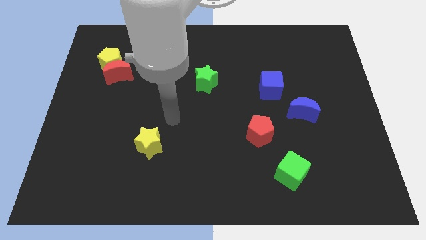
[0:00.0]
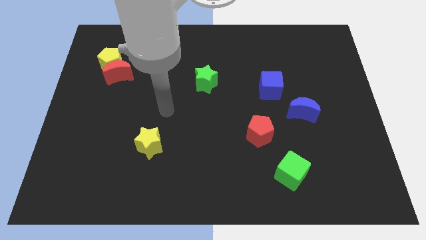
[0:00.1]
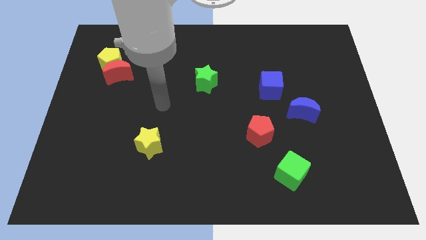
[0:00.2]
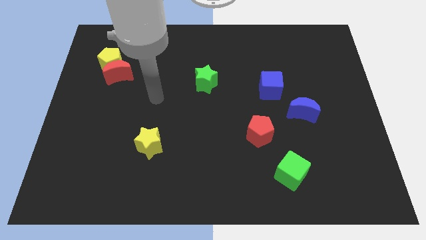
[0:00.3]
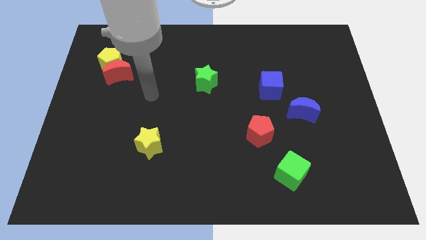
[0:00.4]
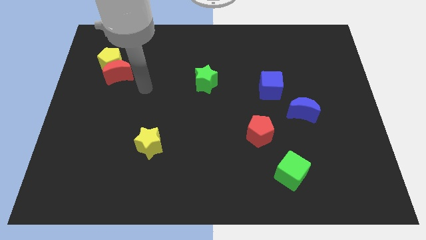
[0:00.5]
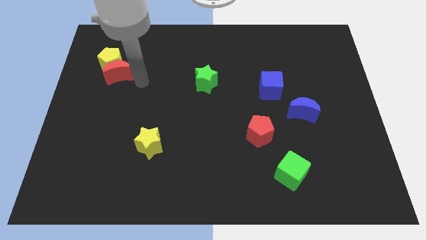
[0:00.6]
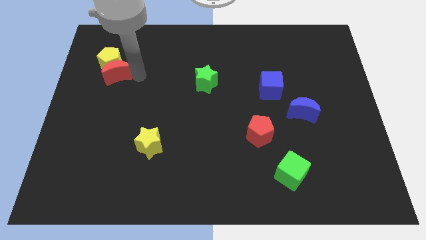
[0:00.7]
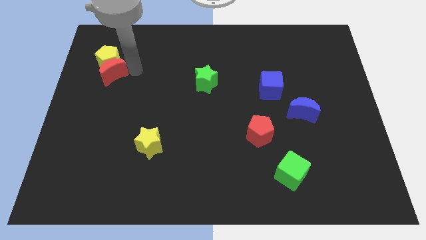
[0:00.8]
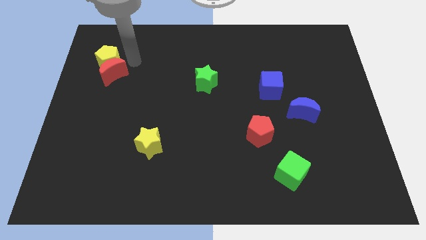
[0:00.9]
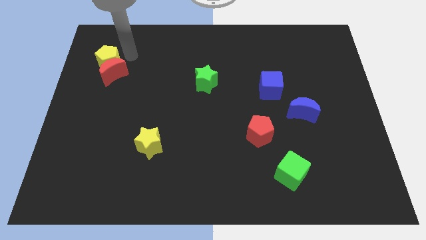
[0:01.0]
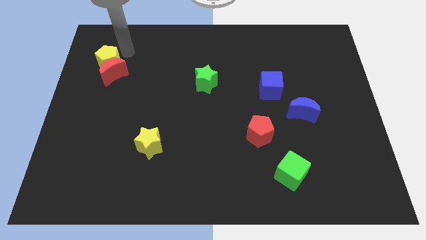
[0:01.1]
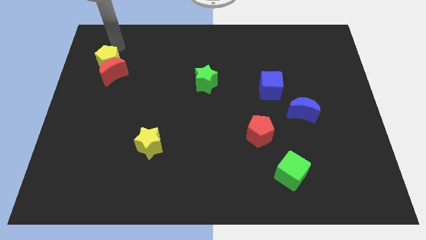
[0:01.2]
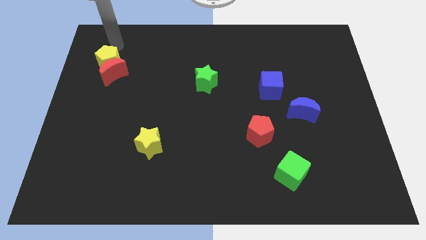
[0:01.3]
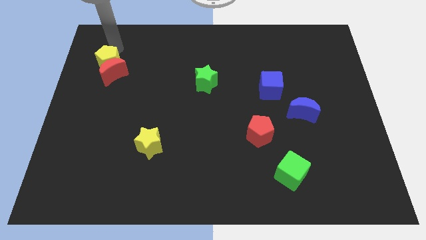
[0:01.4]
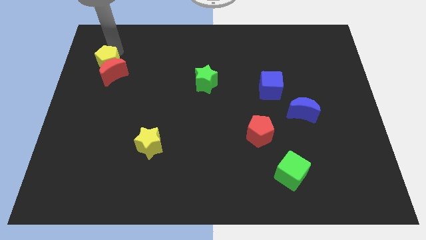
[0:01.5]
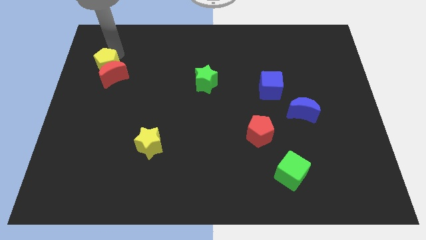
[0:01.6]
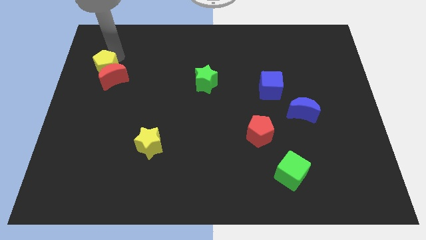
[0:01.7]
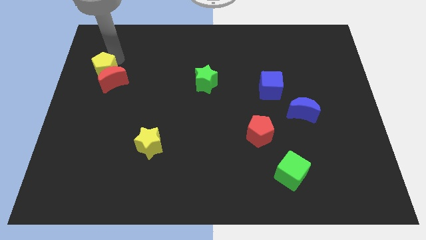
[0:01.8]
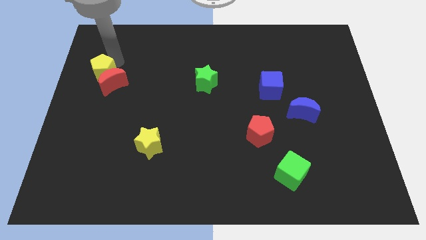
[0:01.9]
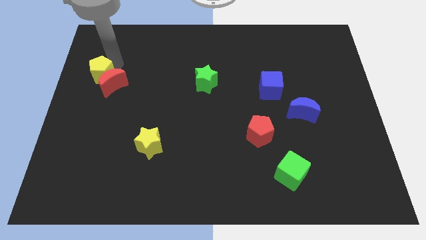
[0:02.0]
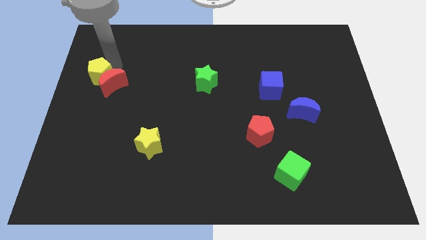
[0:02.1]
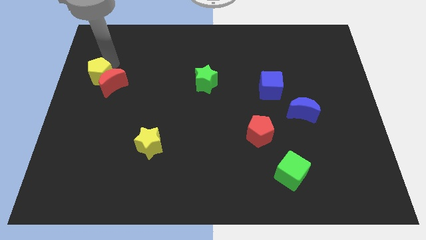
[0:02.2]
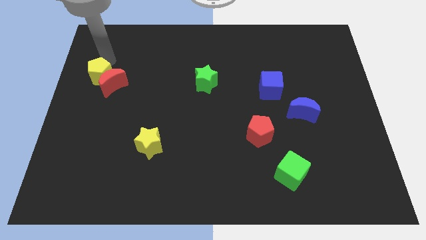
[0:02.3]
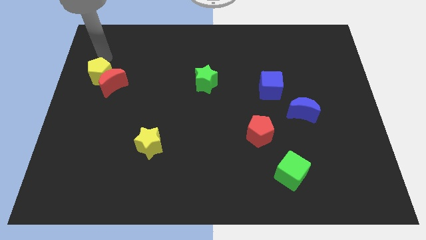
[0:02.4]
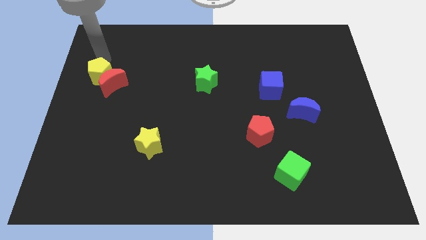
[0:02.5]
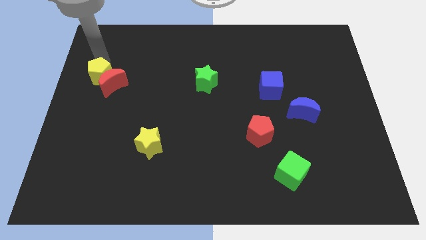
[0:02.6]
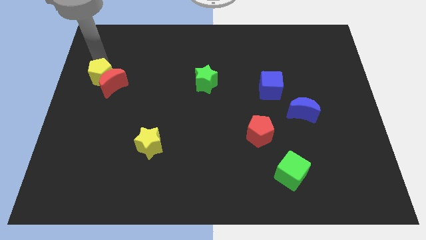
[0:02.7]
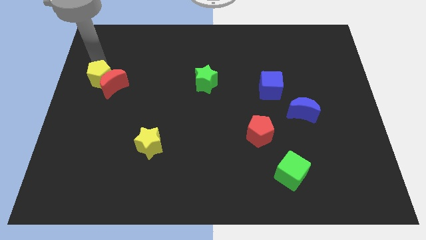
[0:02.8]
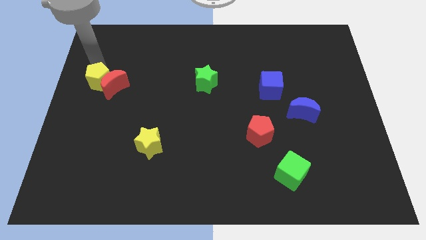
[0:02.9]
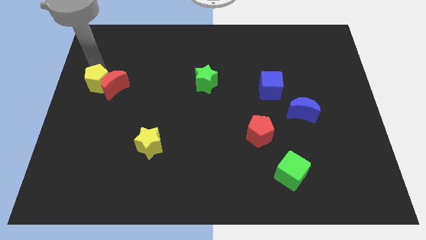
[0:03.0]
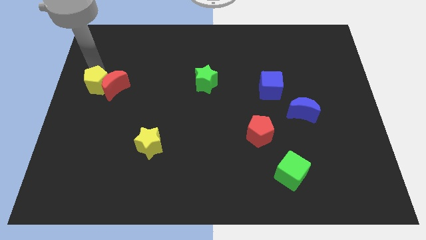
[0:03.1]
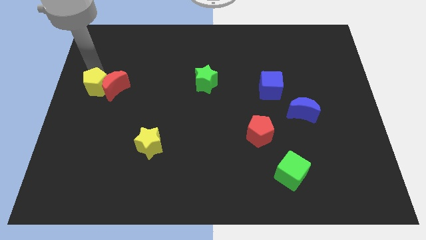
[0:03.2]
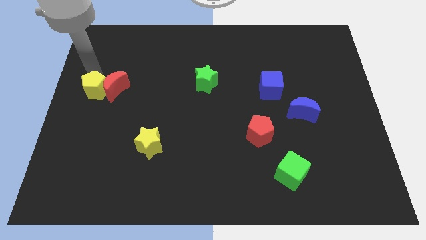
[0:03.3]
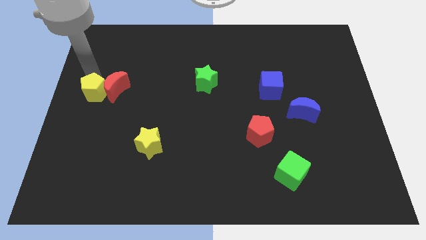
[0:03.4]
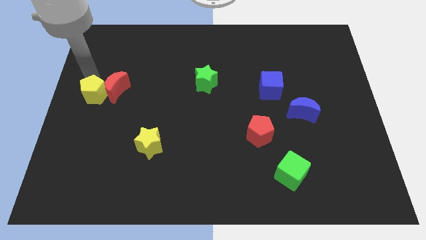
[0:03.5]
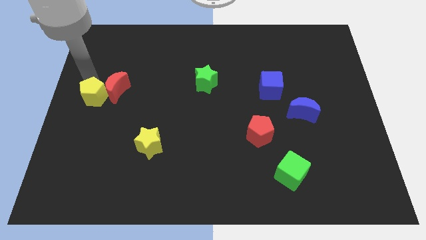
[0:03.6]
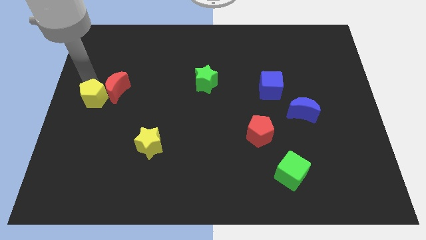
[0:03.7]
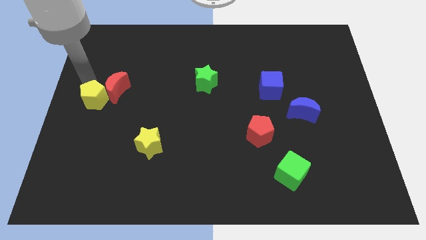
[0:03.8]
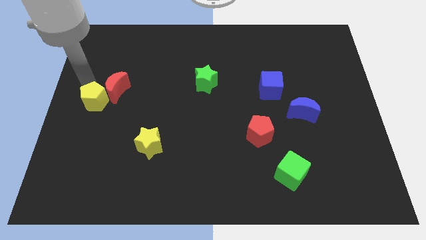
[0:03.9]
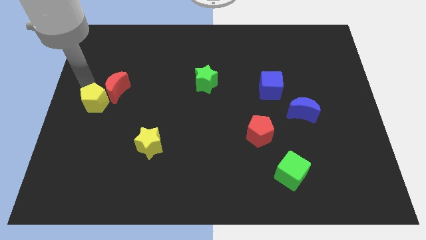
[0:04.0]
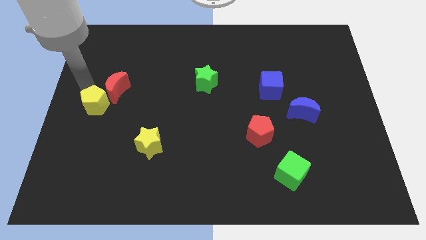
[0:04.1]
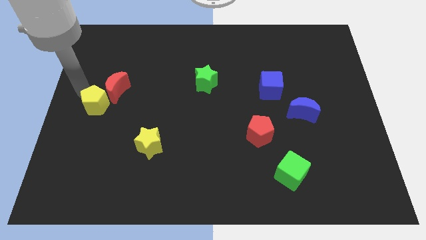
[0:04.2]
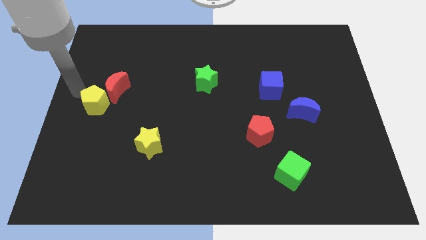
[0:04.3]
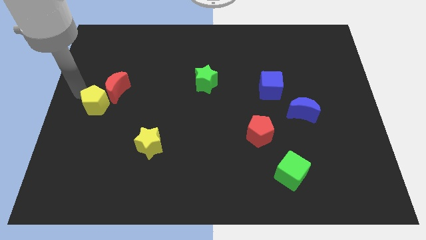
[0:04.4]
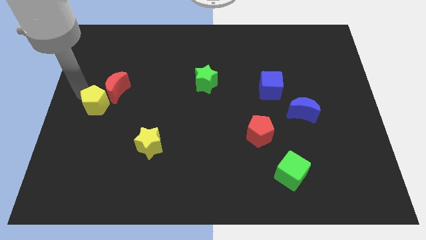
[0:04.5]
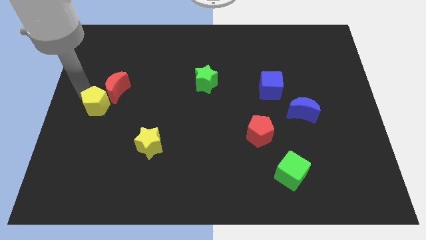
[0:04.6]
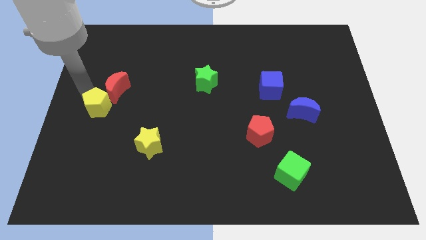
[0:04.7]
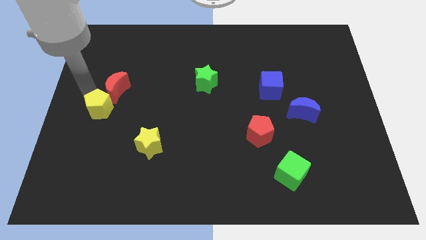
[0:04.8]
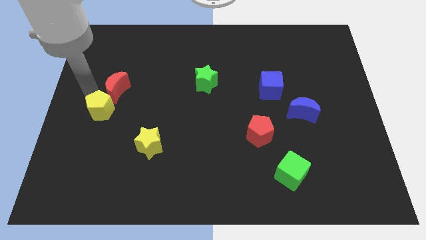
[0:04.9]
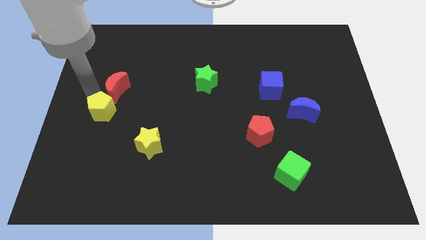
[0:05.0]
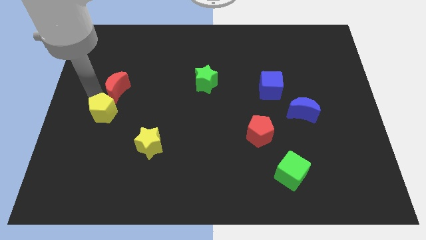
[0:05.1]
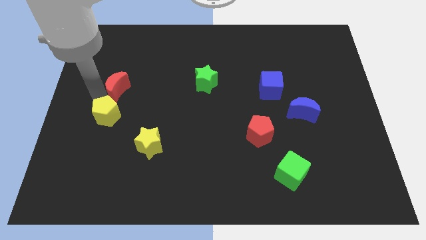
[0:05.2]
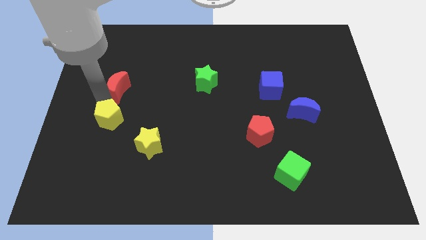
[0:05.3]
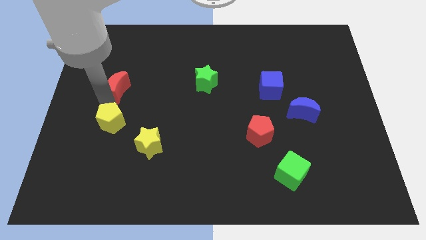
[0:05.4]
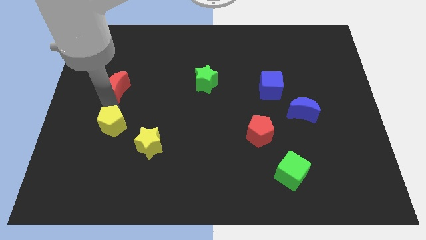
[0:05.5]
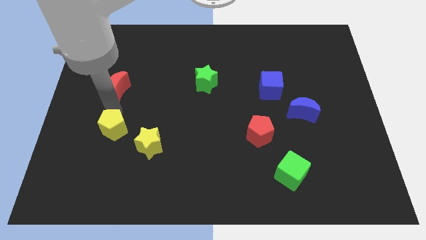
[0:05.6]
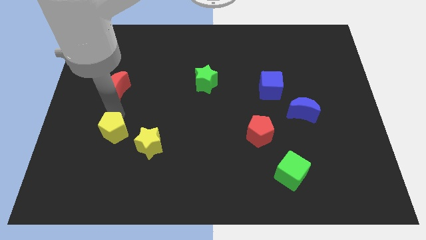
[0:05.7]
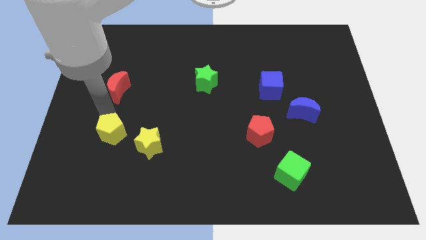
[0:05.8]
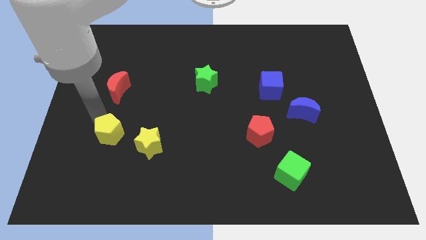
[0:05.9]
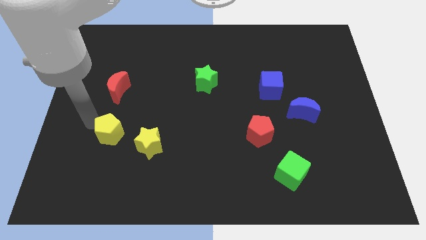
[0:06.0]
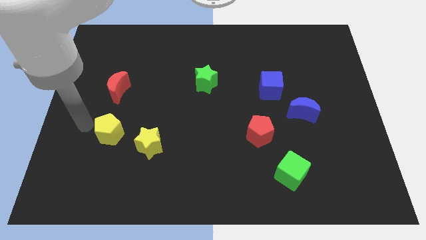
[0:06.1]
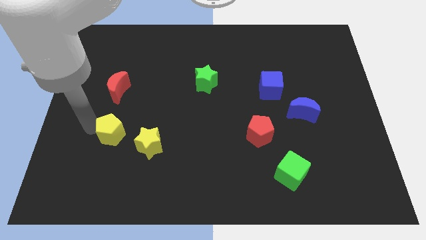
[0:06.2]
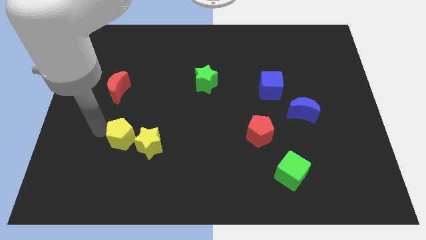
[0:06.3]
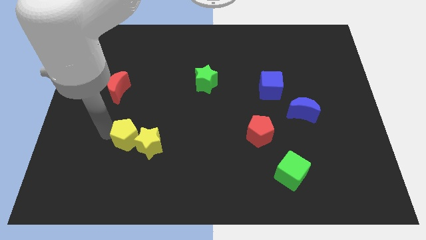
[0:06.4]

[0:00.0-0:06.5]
push the yellow pentagon next to the yellow star

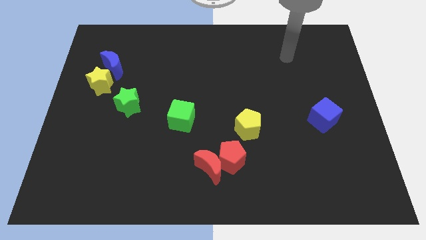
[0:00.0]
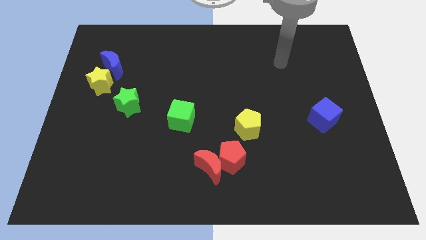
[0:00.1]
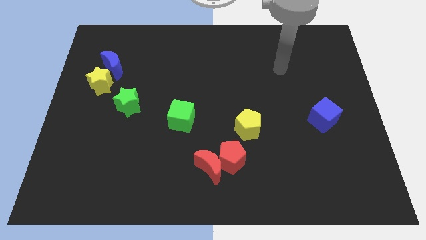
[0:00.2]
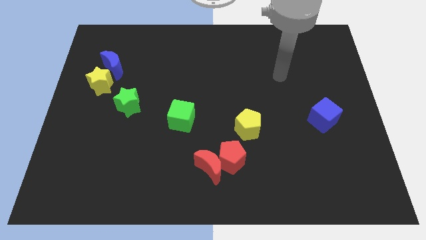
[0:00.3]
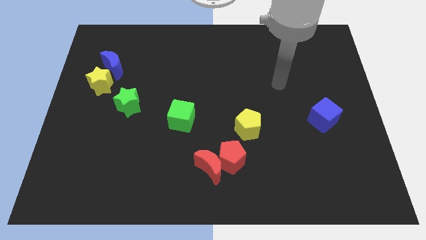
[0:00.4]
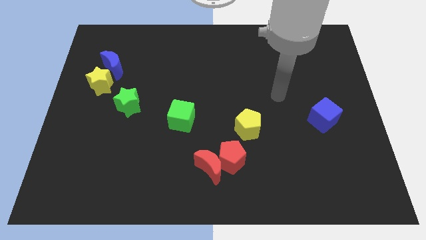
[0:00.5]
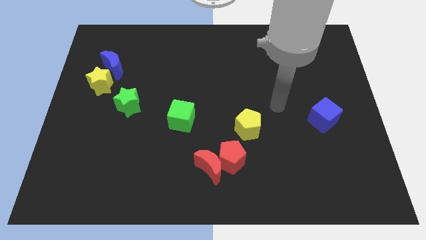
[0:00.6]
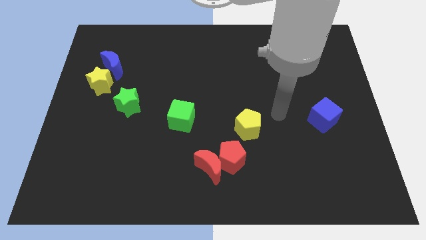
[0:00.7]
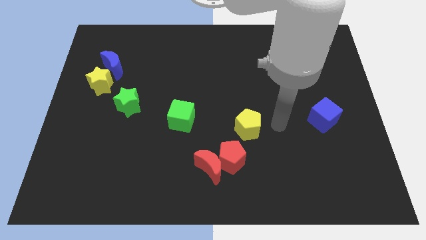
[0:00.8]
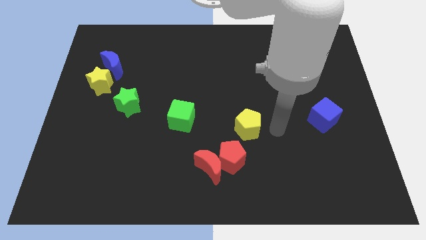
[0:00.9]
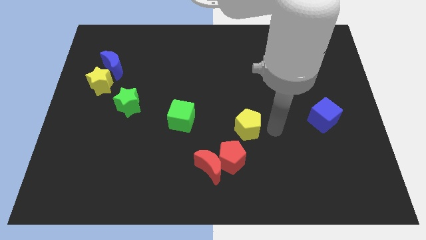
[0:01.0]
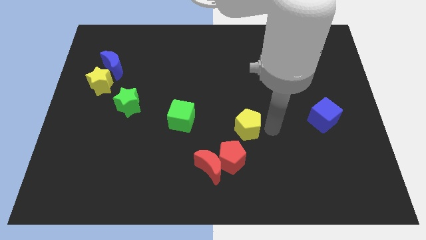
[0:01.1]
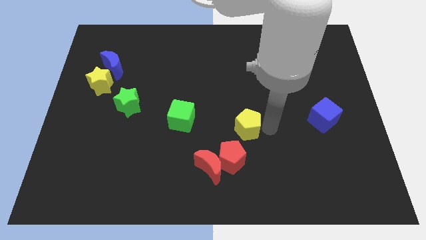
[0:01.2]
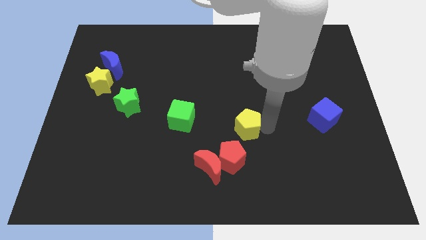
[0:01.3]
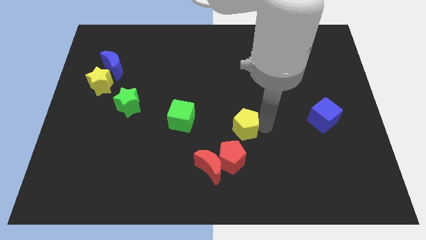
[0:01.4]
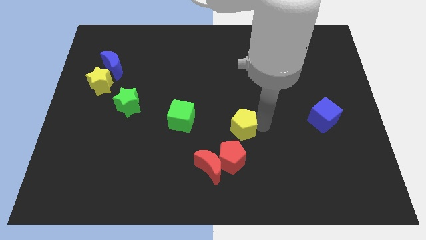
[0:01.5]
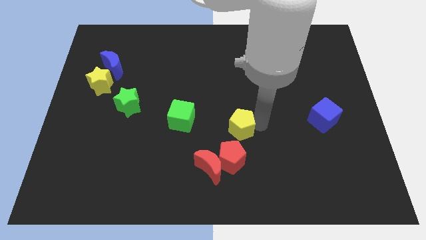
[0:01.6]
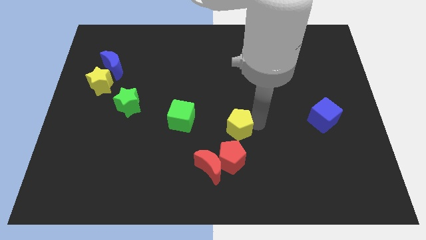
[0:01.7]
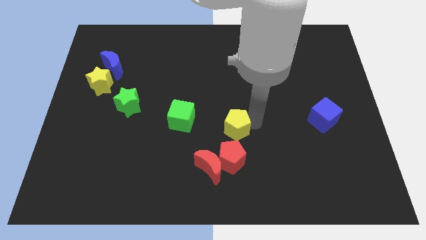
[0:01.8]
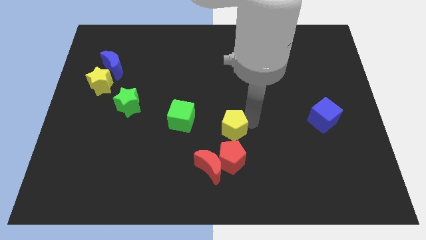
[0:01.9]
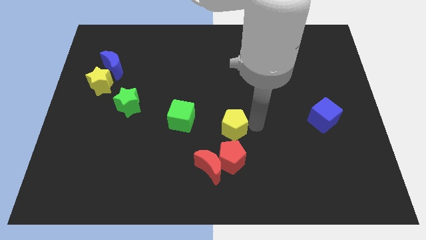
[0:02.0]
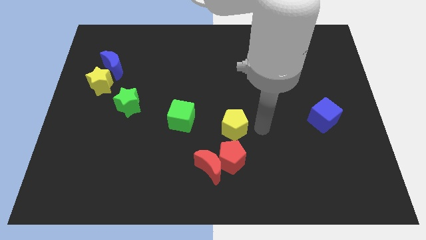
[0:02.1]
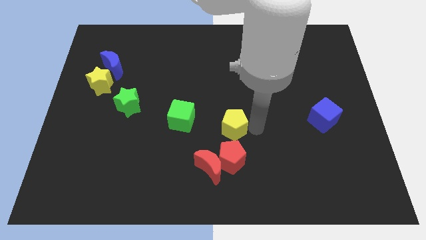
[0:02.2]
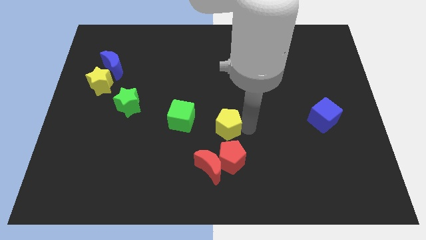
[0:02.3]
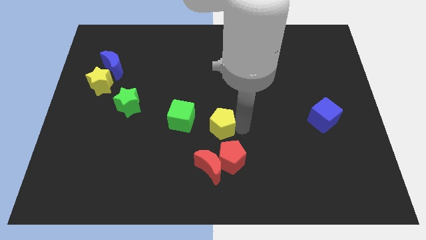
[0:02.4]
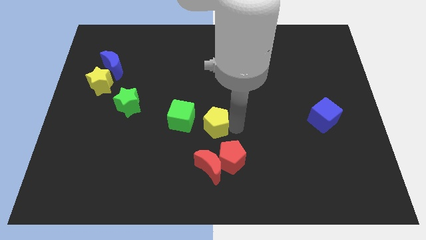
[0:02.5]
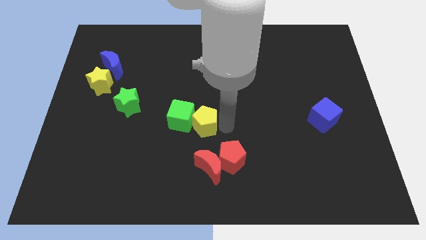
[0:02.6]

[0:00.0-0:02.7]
slide the yellow pentagon to the green cube
